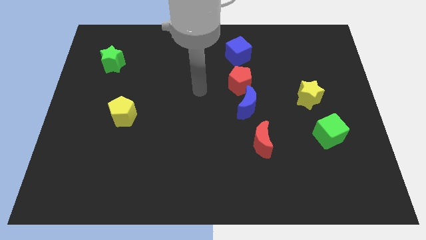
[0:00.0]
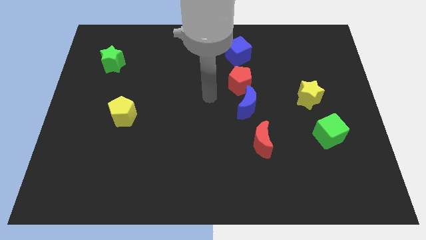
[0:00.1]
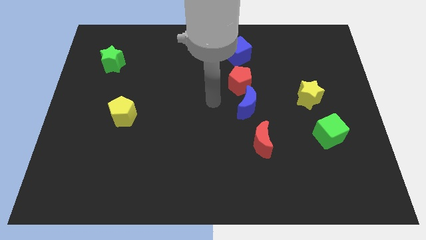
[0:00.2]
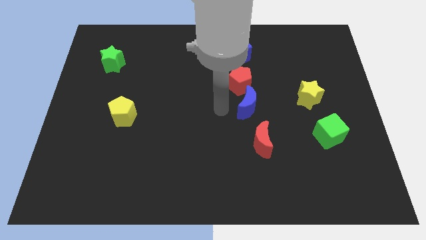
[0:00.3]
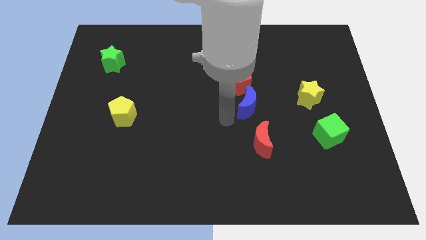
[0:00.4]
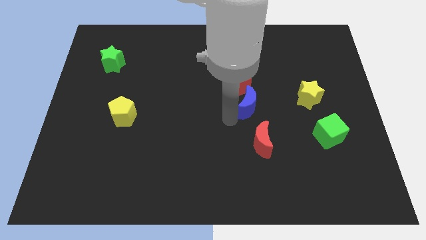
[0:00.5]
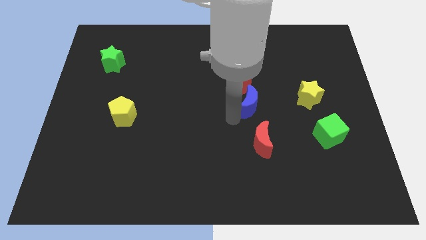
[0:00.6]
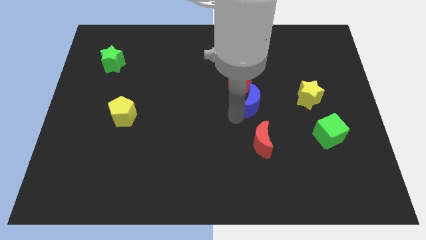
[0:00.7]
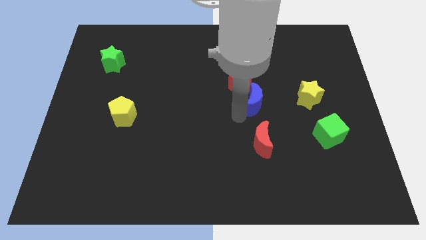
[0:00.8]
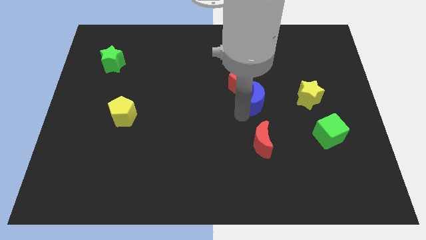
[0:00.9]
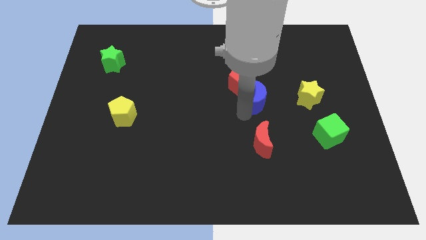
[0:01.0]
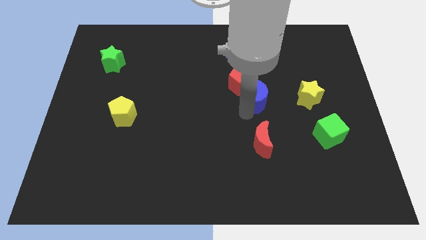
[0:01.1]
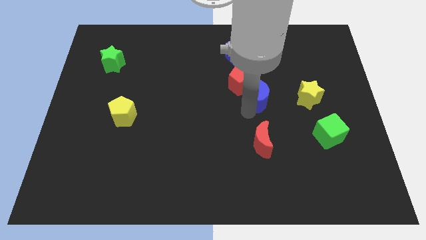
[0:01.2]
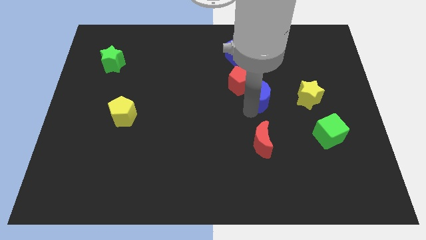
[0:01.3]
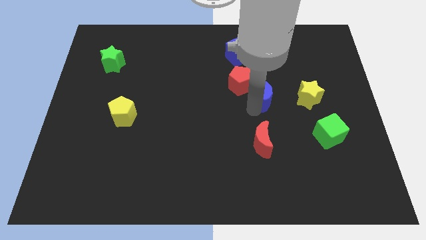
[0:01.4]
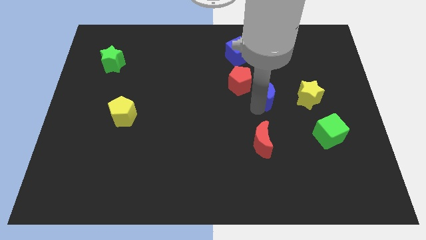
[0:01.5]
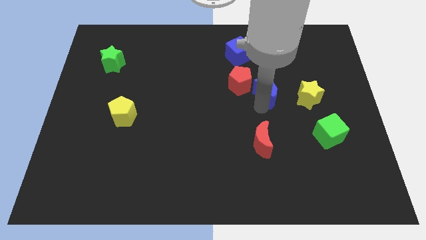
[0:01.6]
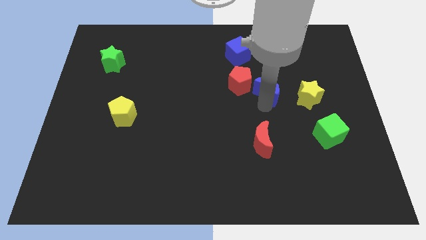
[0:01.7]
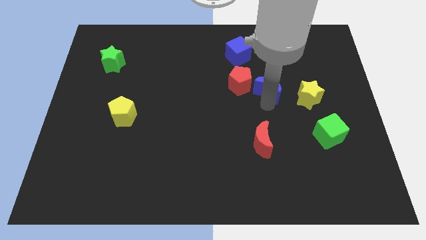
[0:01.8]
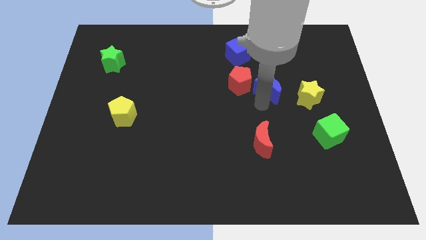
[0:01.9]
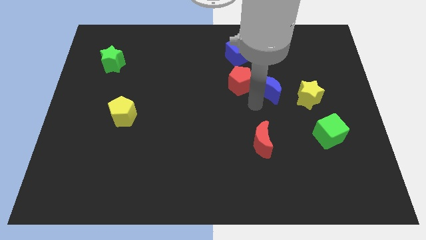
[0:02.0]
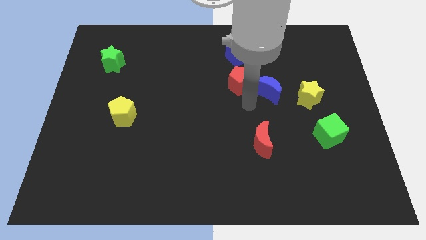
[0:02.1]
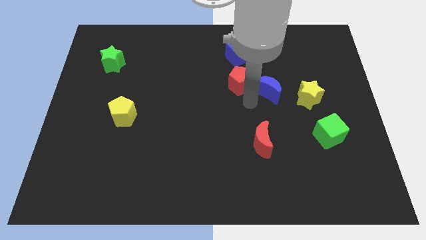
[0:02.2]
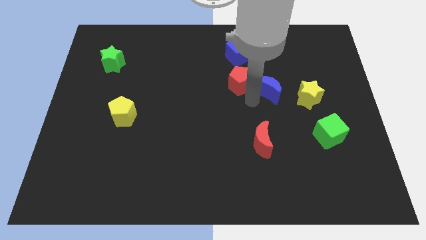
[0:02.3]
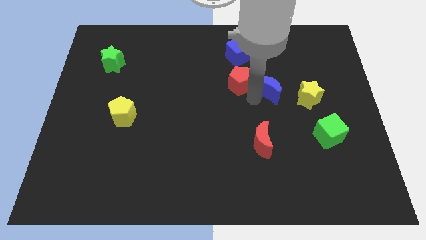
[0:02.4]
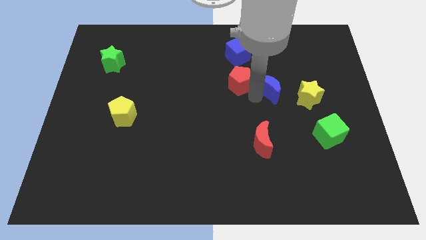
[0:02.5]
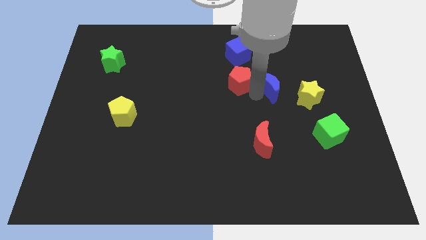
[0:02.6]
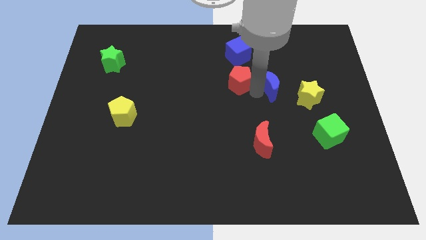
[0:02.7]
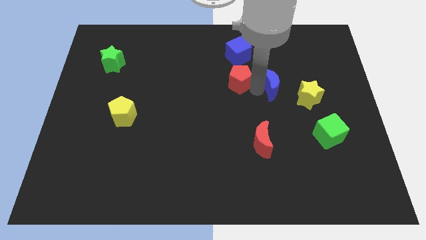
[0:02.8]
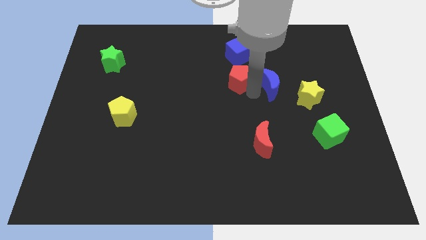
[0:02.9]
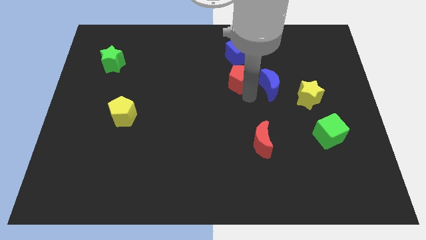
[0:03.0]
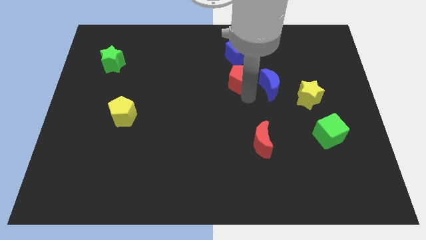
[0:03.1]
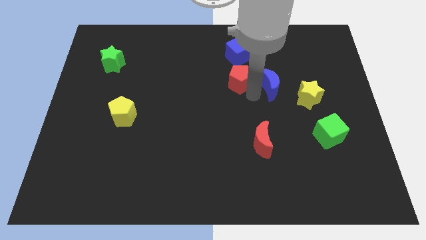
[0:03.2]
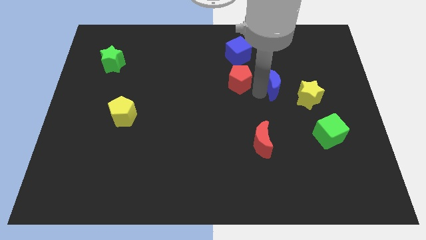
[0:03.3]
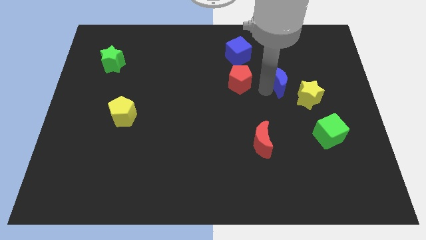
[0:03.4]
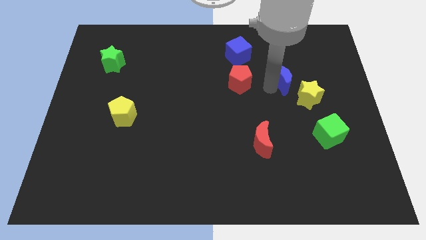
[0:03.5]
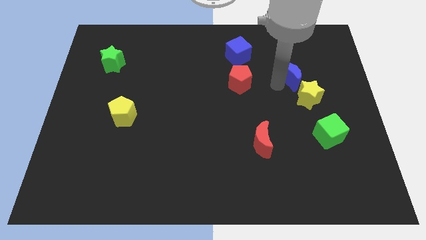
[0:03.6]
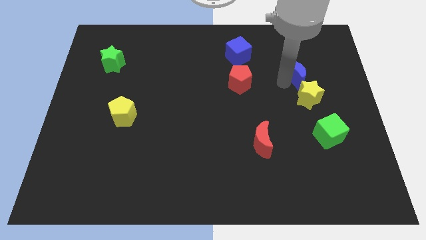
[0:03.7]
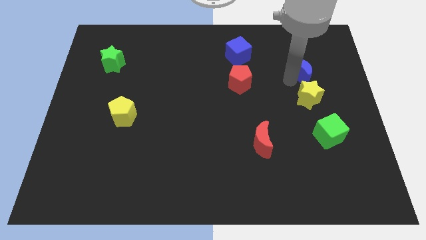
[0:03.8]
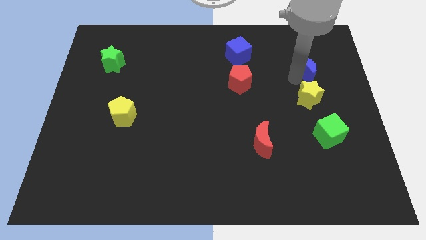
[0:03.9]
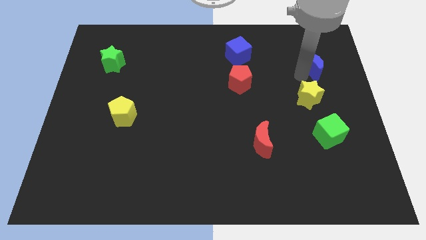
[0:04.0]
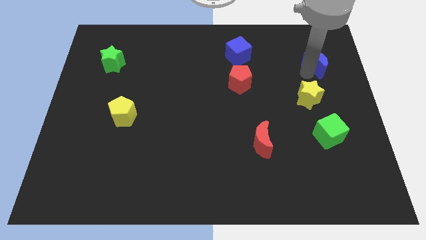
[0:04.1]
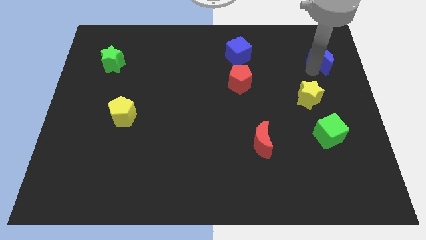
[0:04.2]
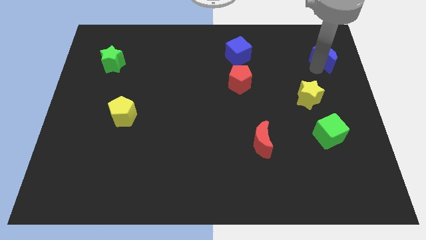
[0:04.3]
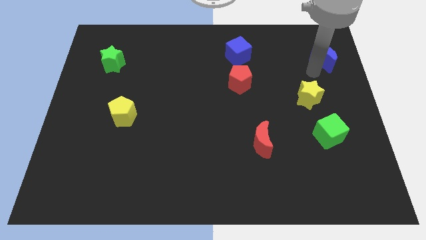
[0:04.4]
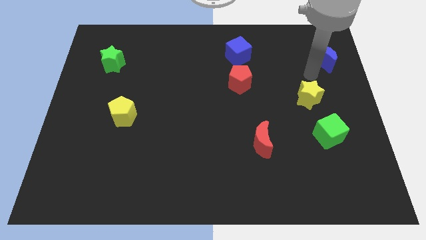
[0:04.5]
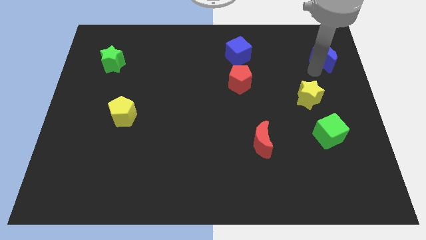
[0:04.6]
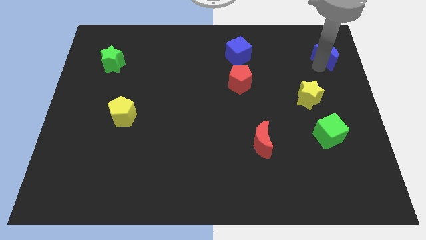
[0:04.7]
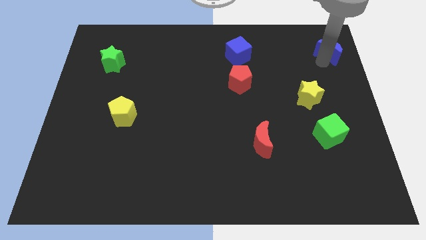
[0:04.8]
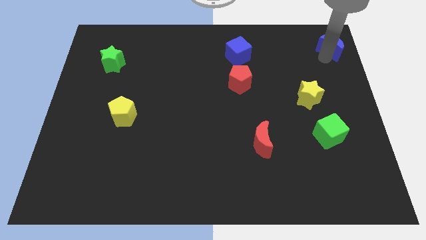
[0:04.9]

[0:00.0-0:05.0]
put the blue moon to the top right corner

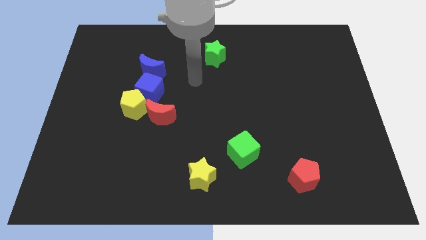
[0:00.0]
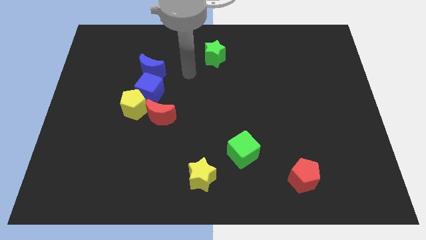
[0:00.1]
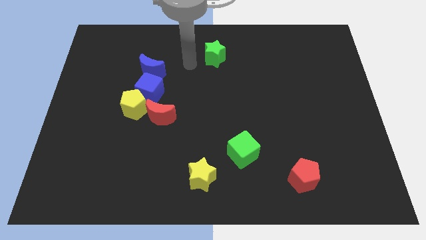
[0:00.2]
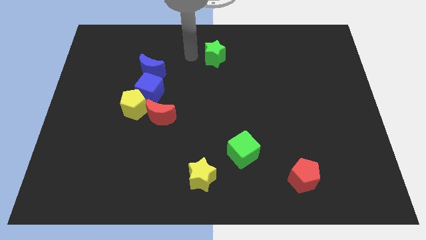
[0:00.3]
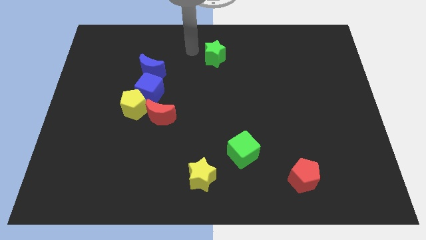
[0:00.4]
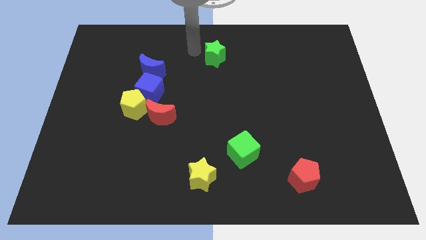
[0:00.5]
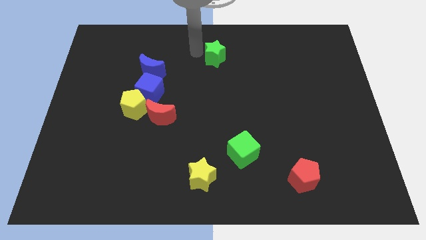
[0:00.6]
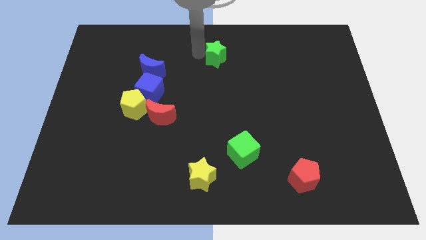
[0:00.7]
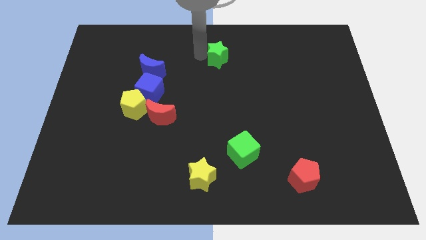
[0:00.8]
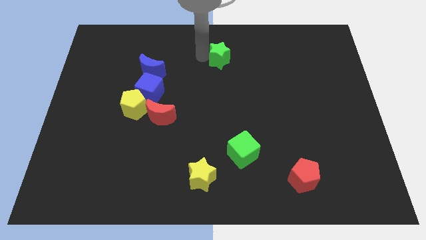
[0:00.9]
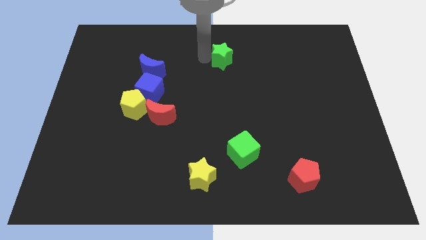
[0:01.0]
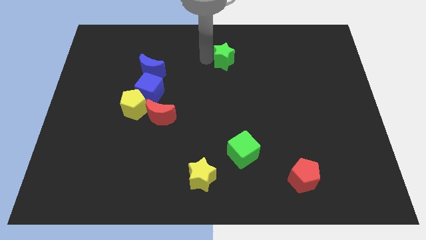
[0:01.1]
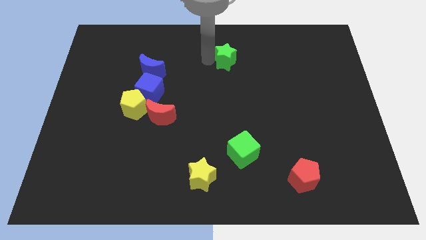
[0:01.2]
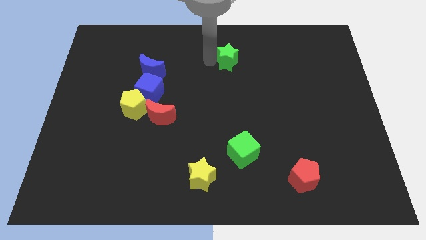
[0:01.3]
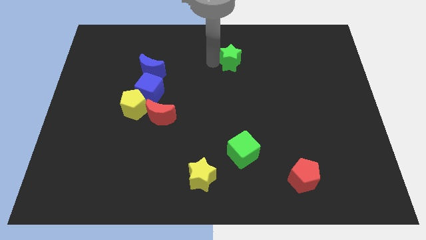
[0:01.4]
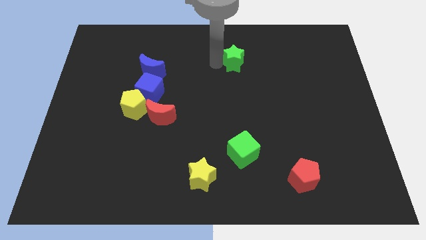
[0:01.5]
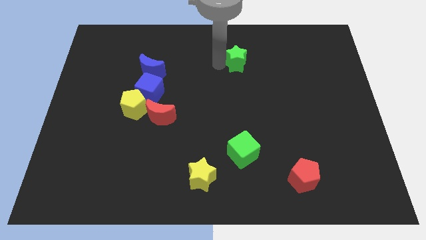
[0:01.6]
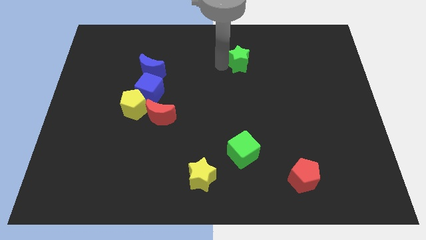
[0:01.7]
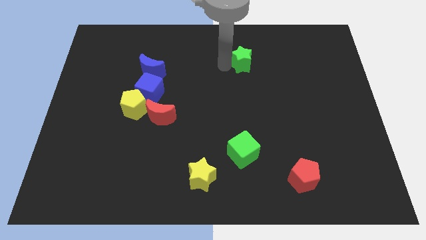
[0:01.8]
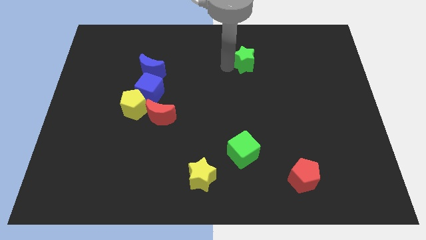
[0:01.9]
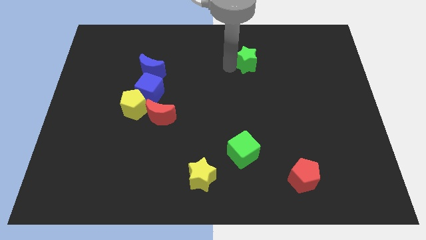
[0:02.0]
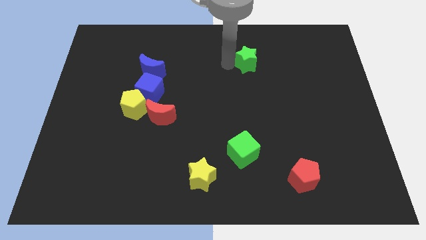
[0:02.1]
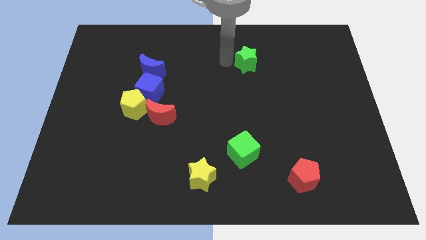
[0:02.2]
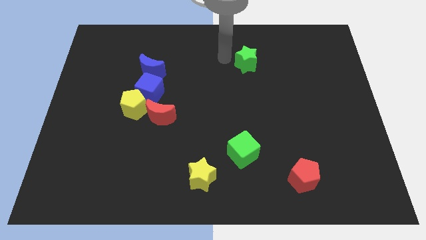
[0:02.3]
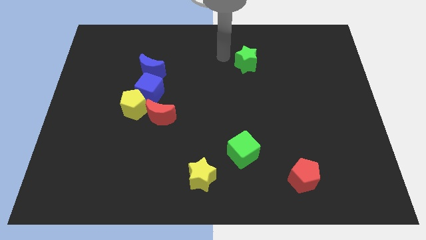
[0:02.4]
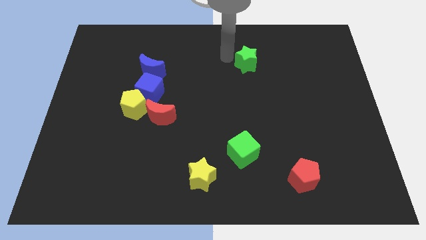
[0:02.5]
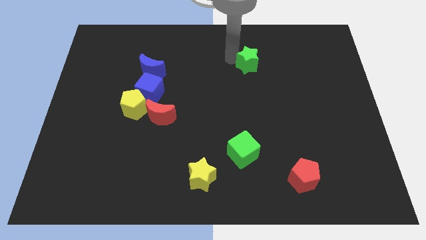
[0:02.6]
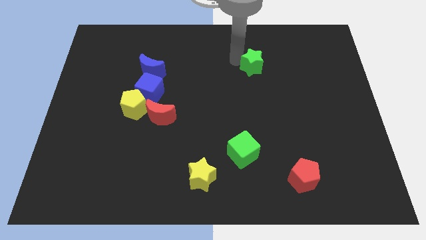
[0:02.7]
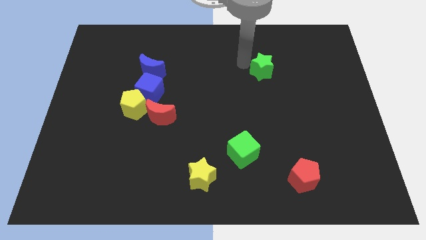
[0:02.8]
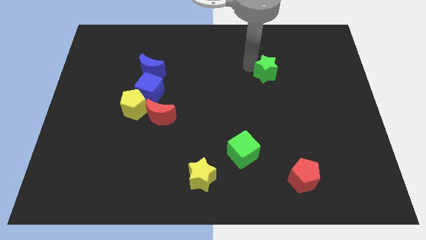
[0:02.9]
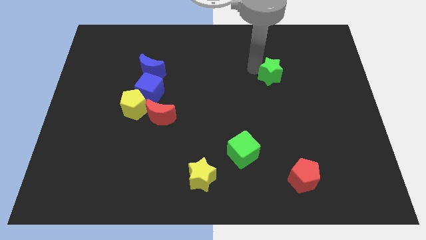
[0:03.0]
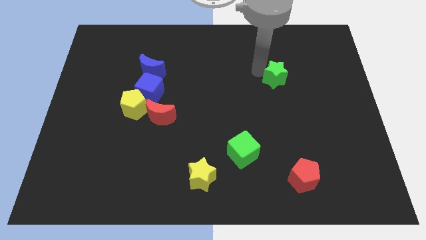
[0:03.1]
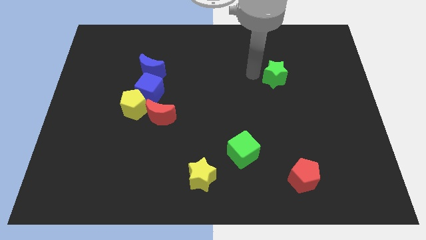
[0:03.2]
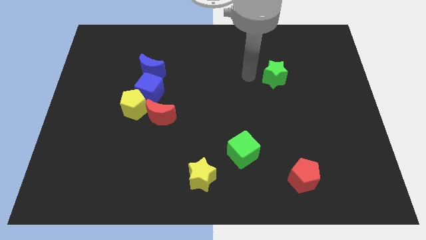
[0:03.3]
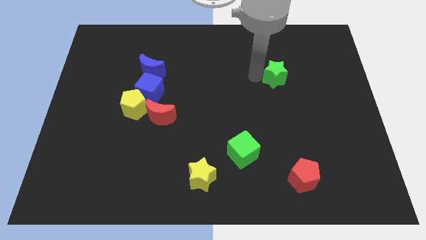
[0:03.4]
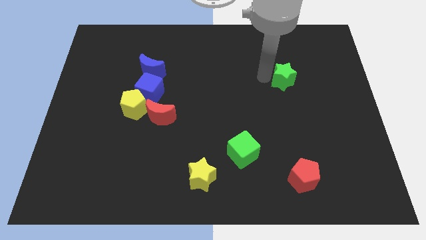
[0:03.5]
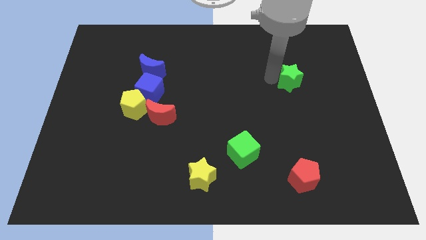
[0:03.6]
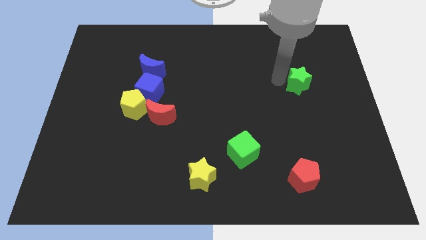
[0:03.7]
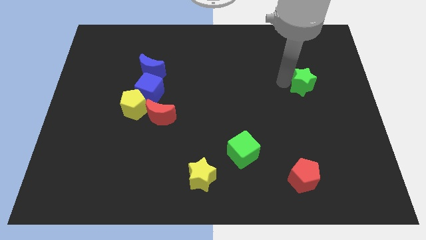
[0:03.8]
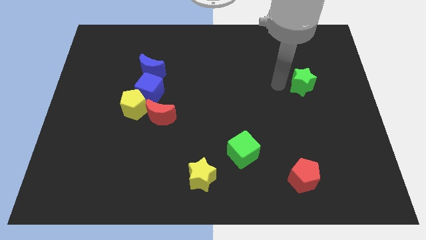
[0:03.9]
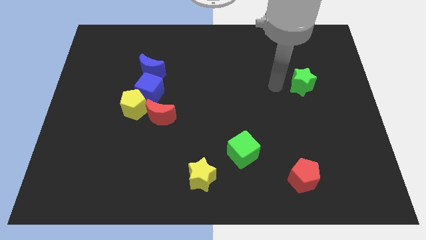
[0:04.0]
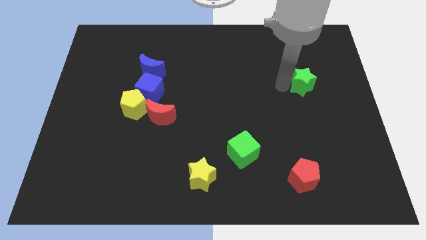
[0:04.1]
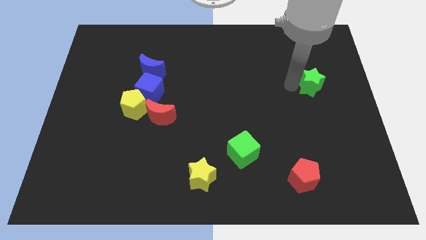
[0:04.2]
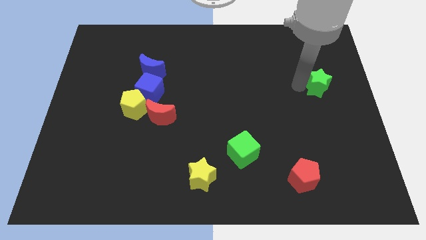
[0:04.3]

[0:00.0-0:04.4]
move the green star to the right side
